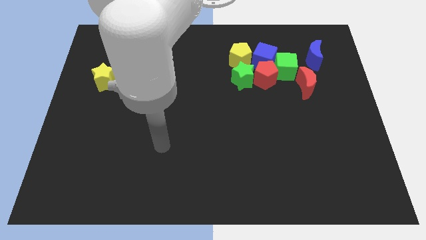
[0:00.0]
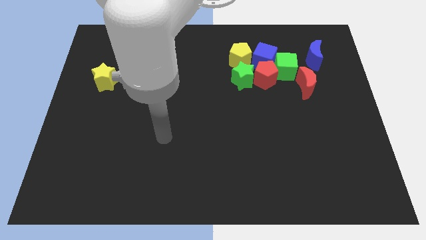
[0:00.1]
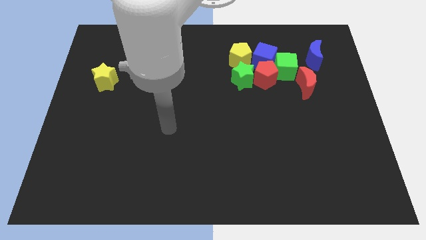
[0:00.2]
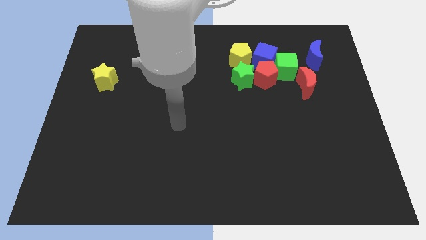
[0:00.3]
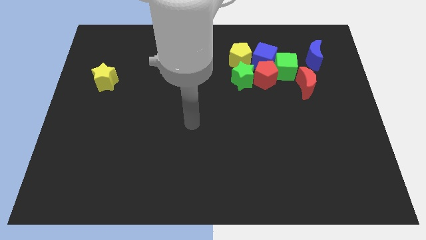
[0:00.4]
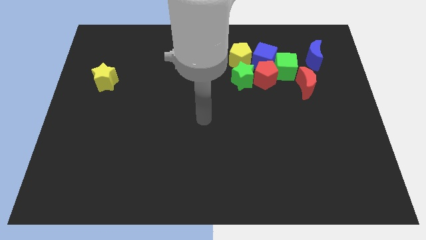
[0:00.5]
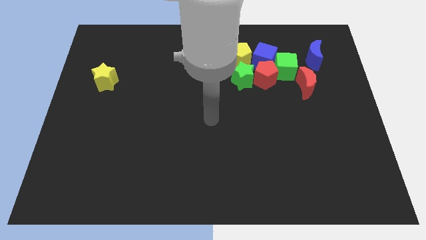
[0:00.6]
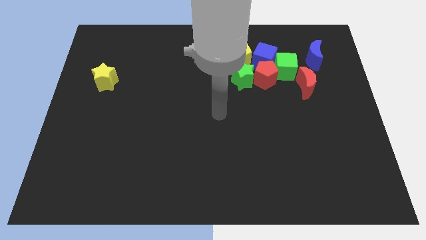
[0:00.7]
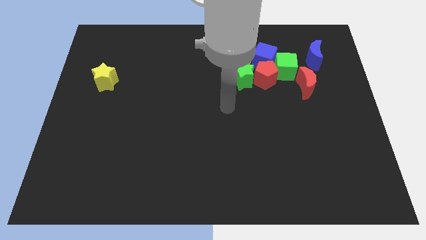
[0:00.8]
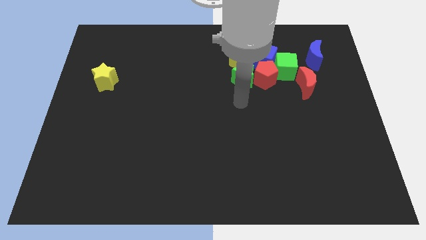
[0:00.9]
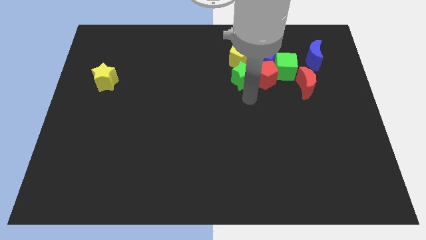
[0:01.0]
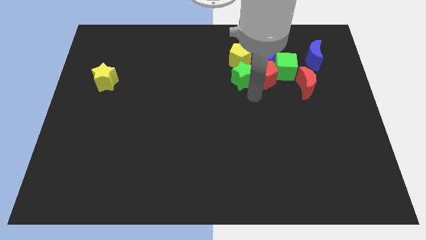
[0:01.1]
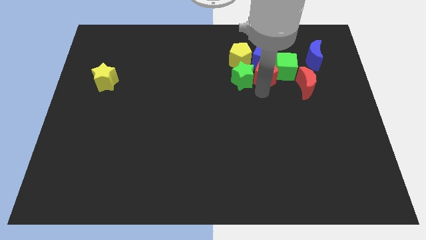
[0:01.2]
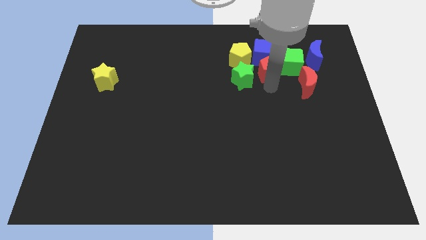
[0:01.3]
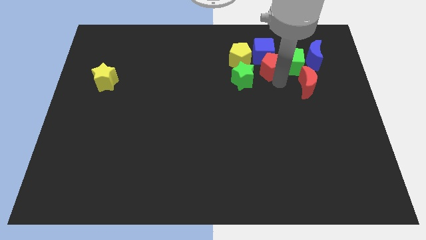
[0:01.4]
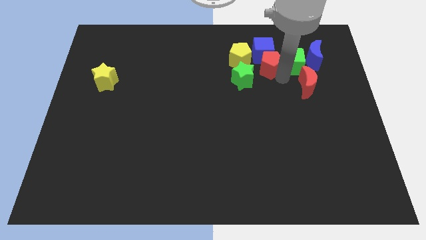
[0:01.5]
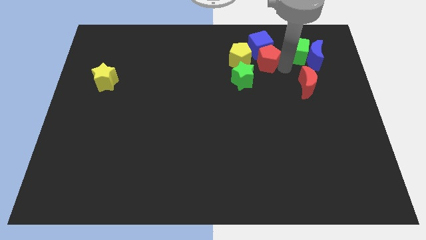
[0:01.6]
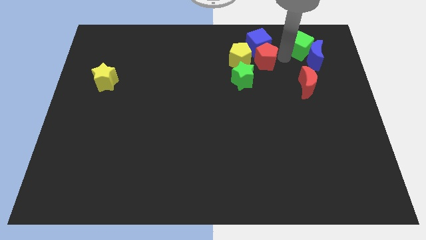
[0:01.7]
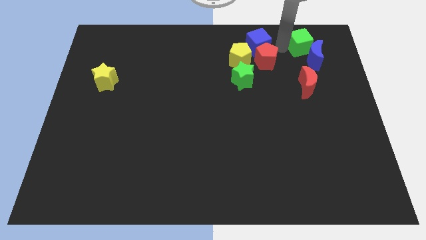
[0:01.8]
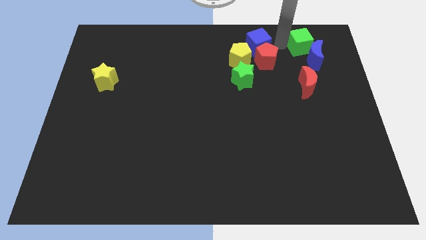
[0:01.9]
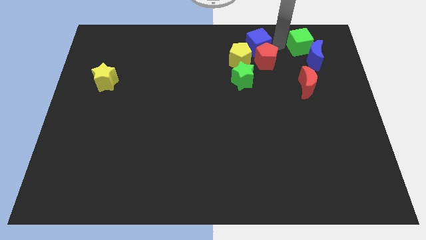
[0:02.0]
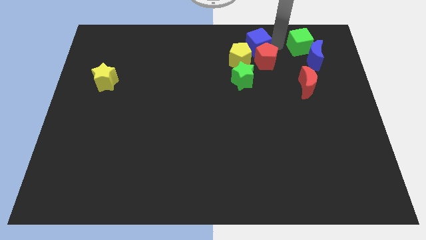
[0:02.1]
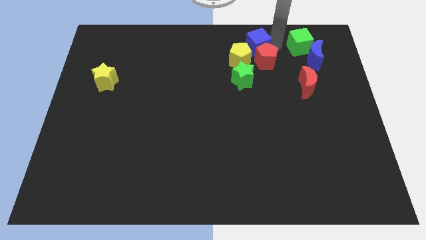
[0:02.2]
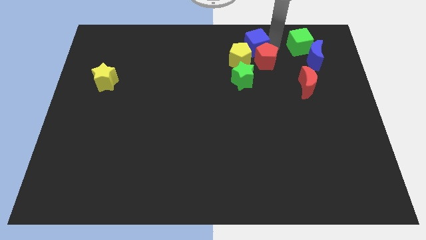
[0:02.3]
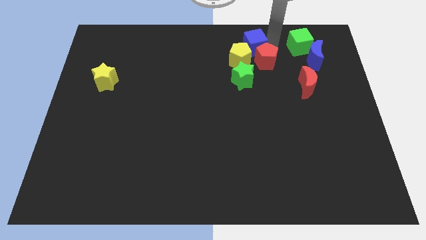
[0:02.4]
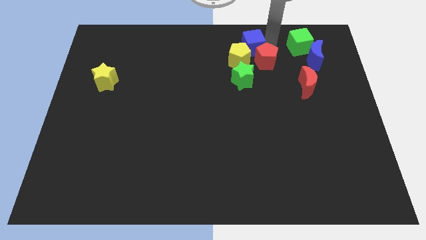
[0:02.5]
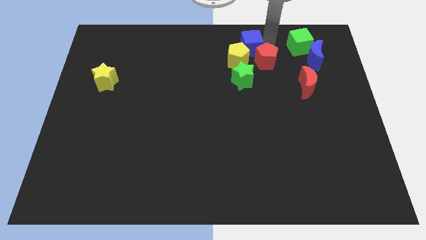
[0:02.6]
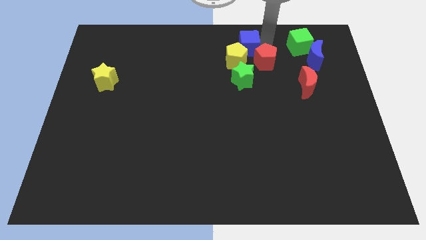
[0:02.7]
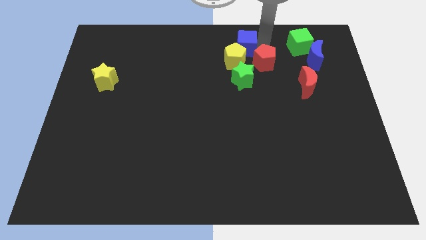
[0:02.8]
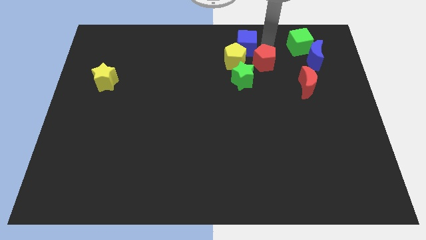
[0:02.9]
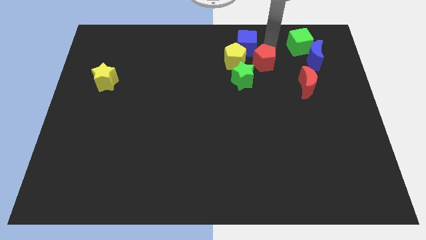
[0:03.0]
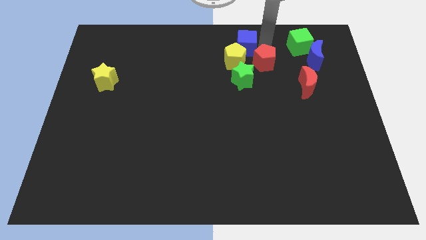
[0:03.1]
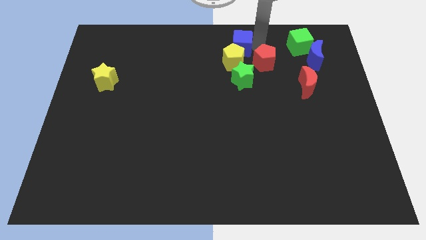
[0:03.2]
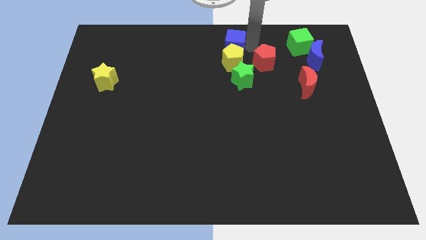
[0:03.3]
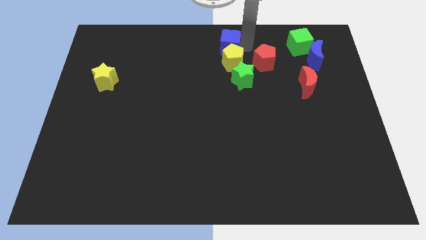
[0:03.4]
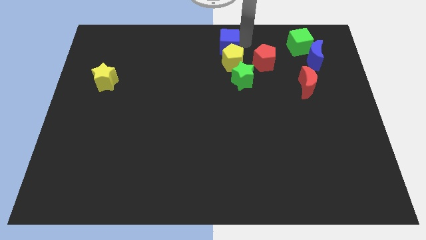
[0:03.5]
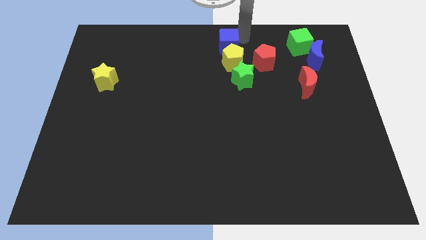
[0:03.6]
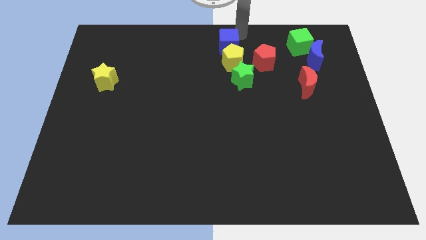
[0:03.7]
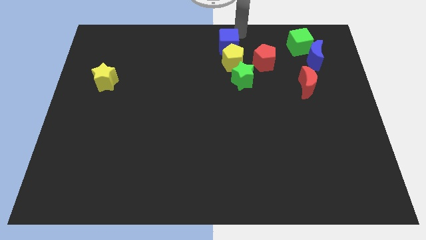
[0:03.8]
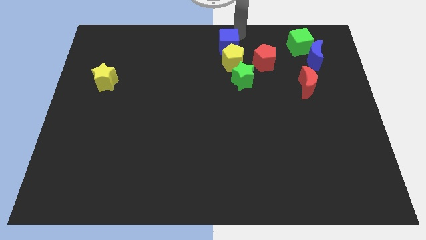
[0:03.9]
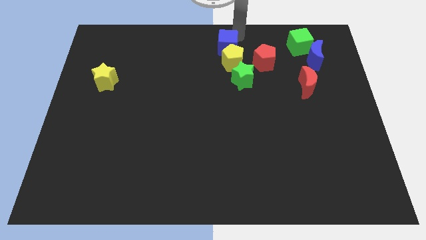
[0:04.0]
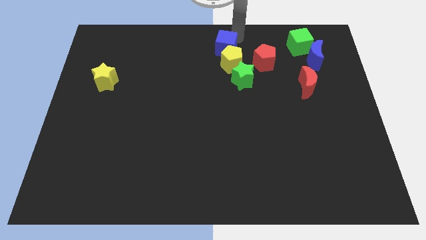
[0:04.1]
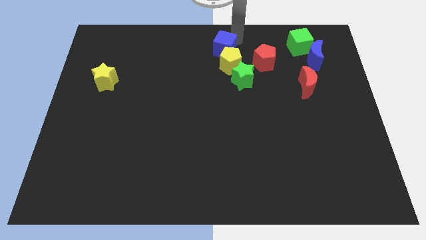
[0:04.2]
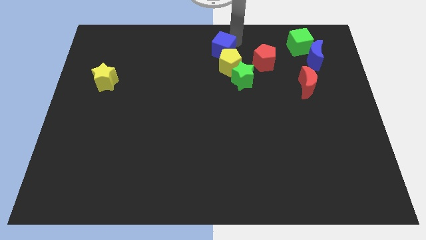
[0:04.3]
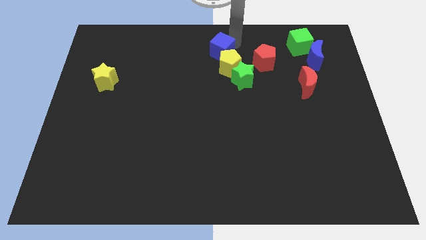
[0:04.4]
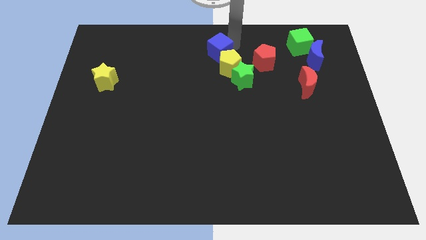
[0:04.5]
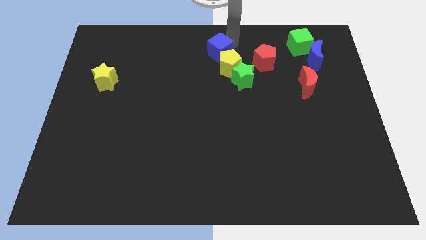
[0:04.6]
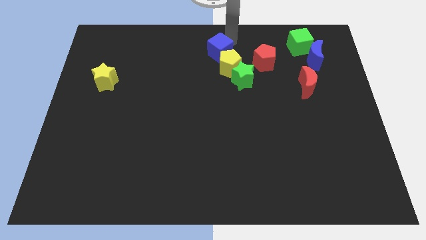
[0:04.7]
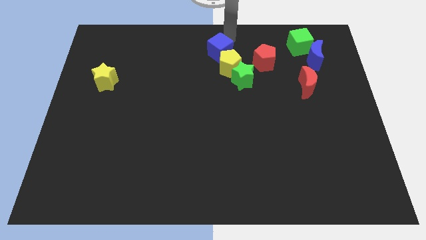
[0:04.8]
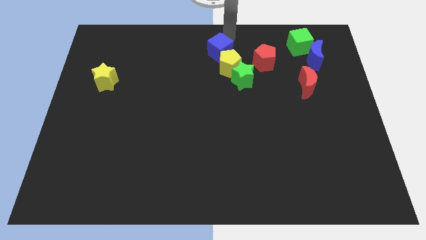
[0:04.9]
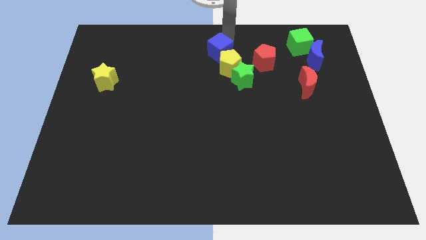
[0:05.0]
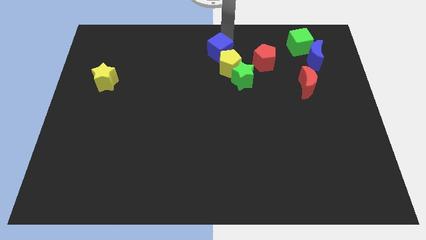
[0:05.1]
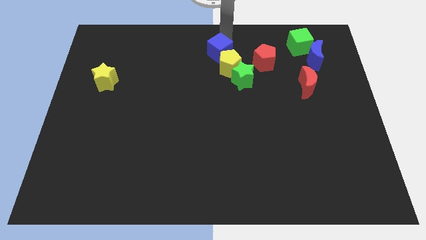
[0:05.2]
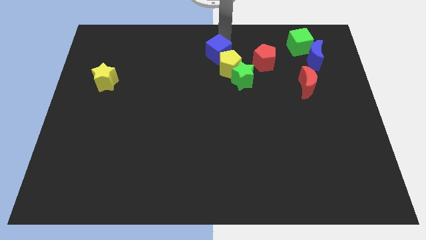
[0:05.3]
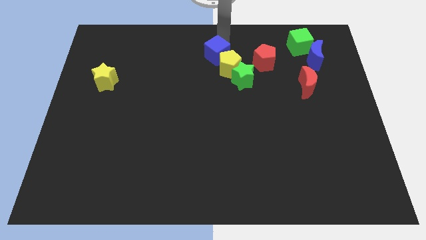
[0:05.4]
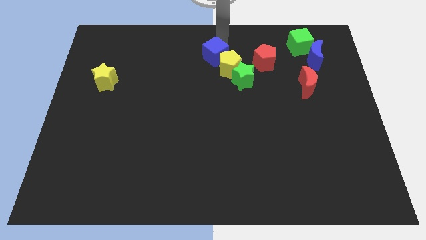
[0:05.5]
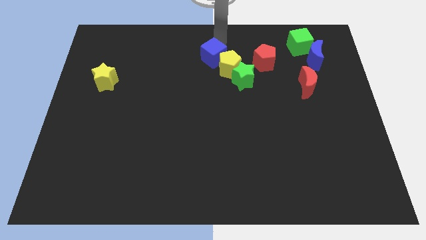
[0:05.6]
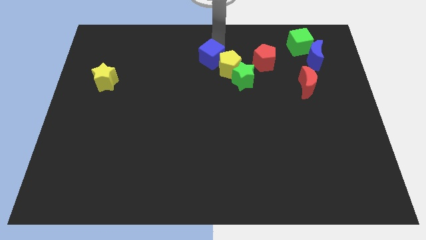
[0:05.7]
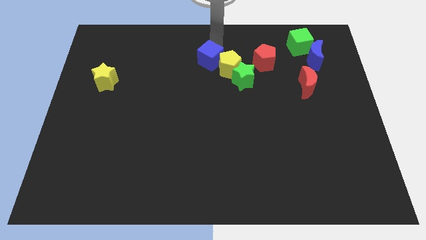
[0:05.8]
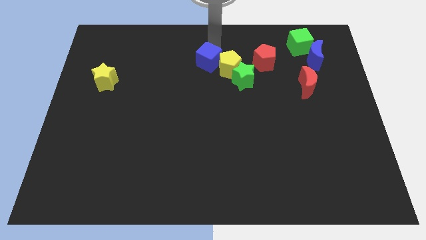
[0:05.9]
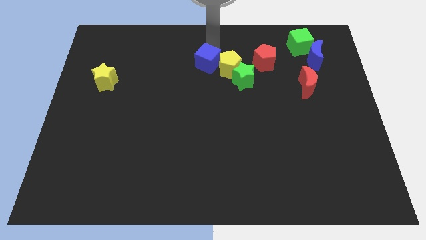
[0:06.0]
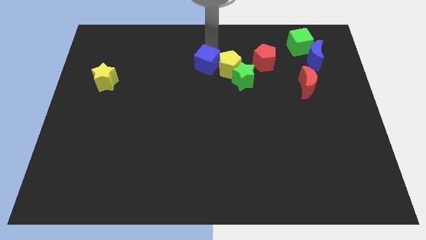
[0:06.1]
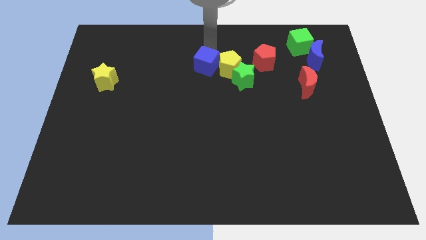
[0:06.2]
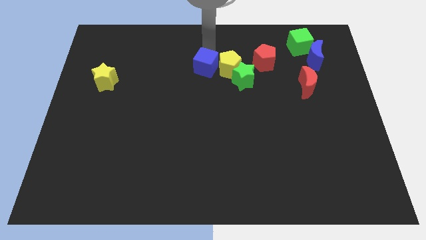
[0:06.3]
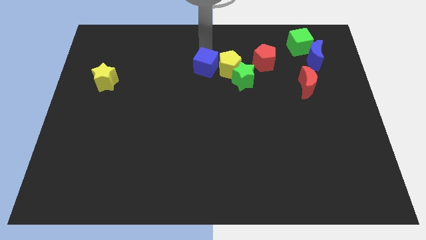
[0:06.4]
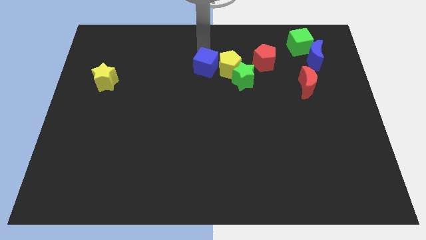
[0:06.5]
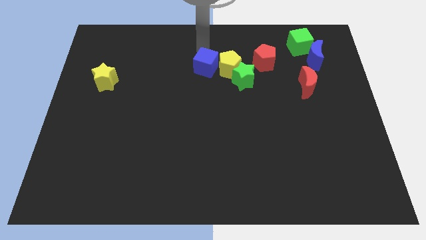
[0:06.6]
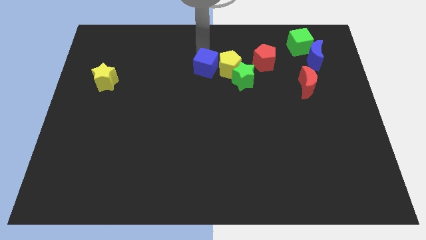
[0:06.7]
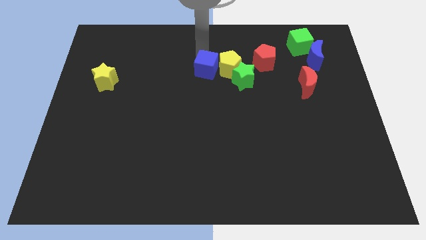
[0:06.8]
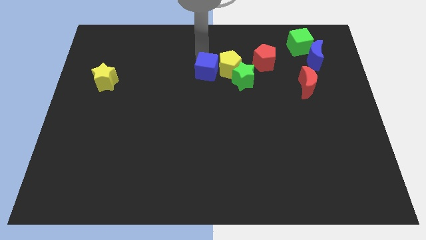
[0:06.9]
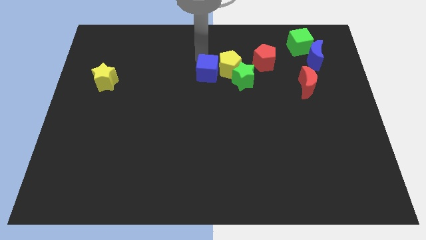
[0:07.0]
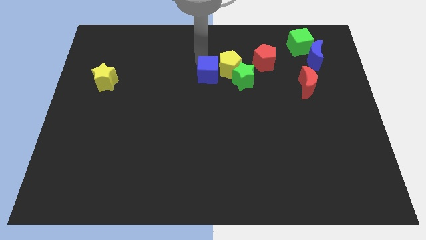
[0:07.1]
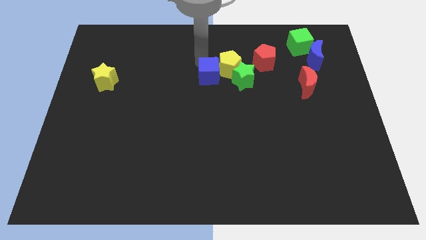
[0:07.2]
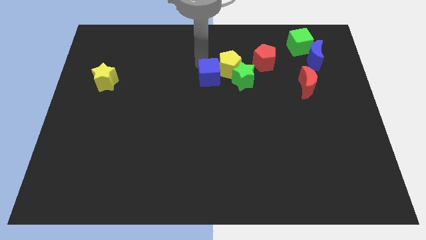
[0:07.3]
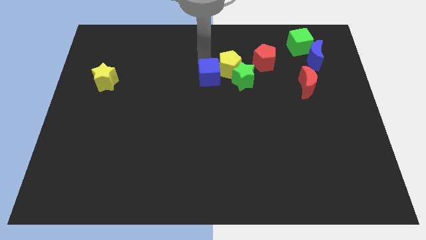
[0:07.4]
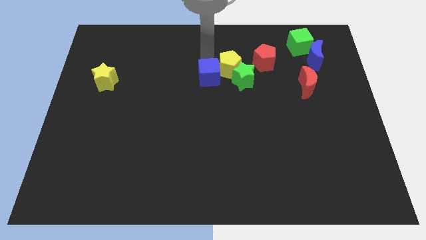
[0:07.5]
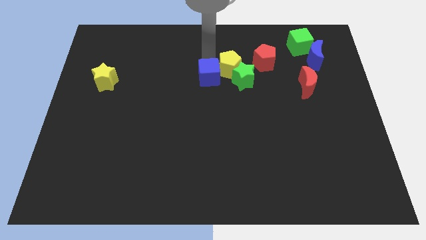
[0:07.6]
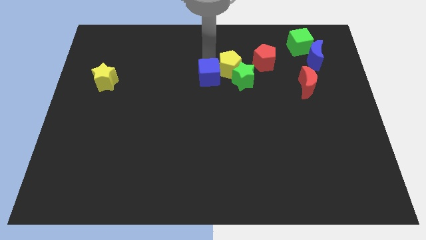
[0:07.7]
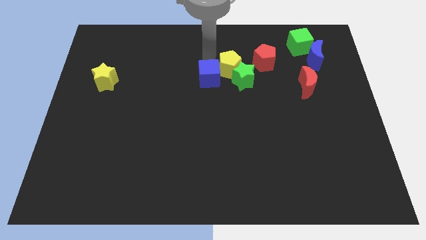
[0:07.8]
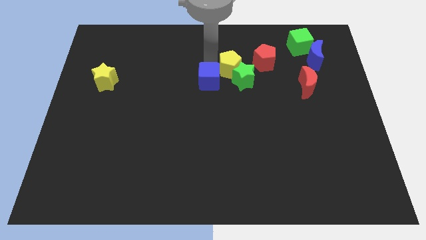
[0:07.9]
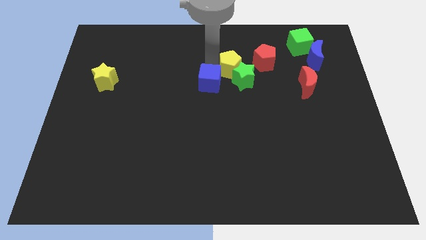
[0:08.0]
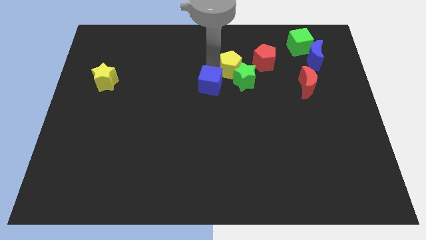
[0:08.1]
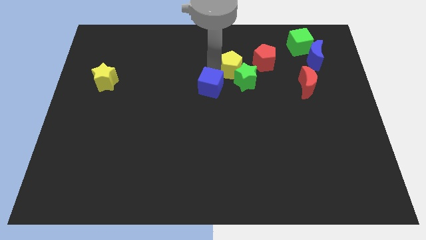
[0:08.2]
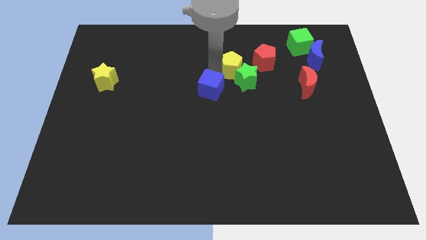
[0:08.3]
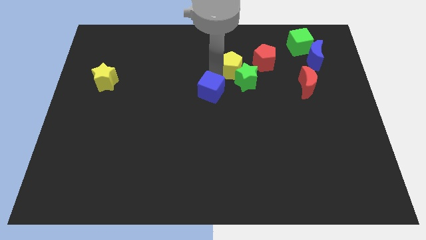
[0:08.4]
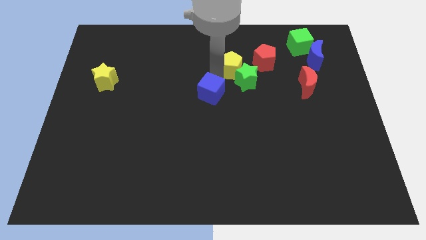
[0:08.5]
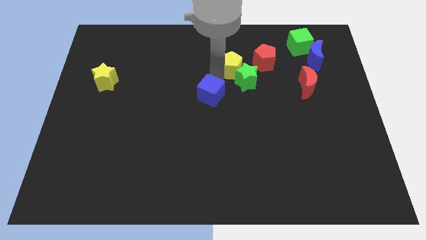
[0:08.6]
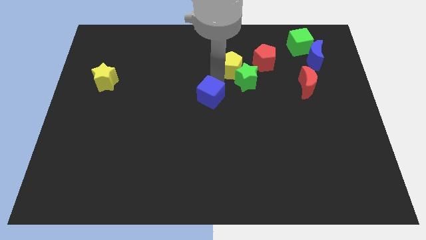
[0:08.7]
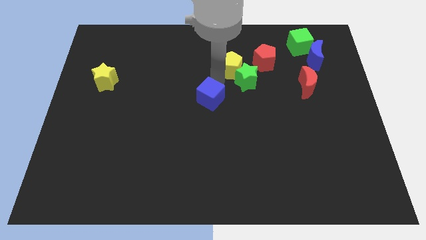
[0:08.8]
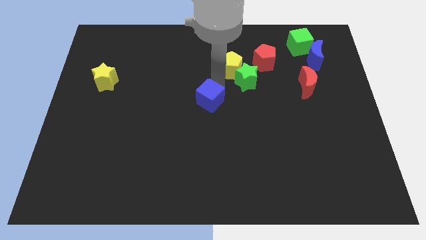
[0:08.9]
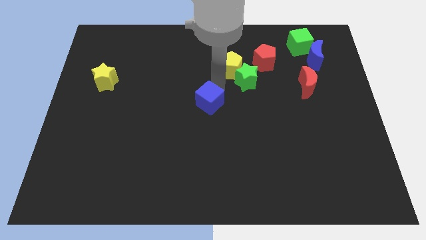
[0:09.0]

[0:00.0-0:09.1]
move the blue cube downwards and then left
